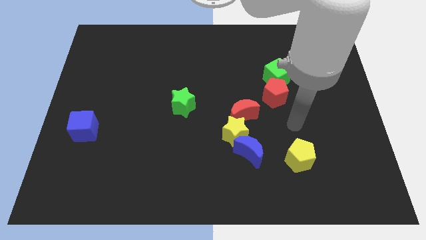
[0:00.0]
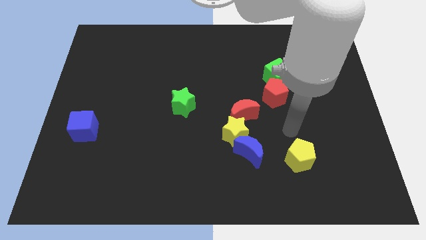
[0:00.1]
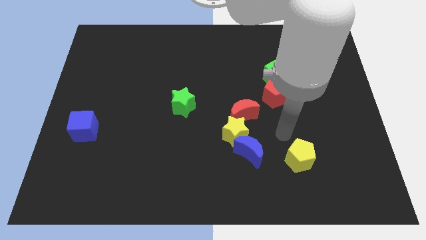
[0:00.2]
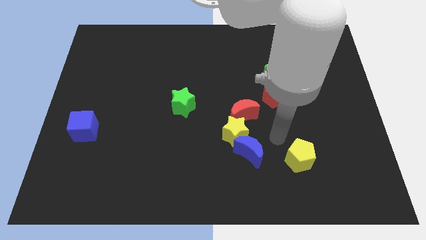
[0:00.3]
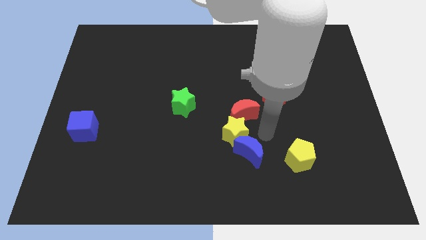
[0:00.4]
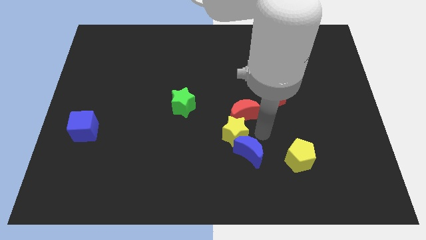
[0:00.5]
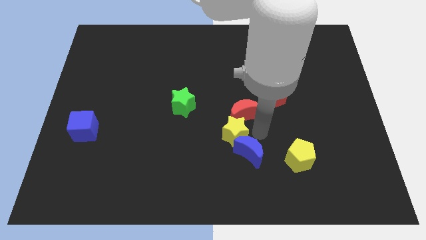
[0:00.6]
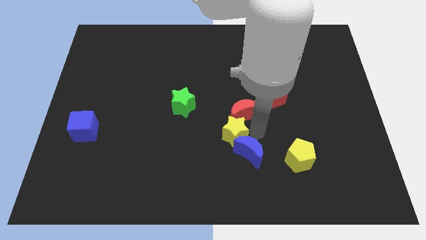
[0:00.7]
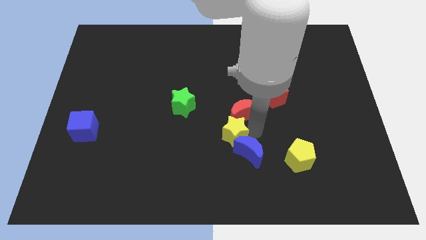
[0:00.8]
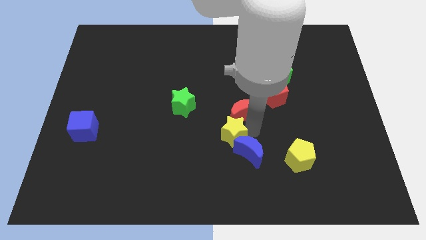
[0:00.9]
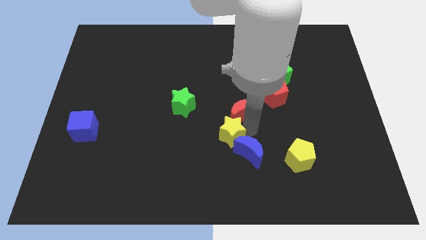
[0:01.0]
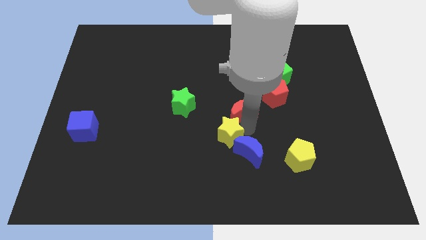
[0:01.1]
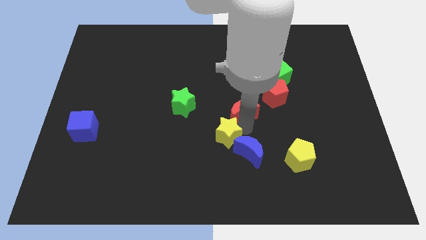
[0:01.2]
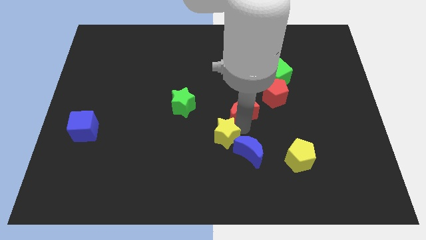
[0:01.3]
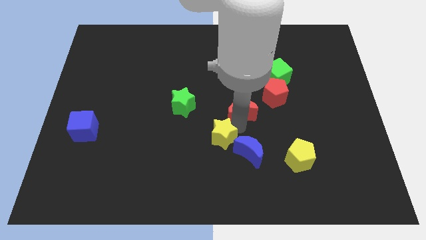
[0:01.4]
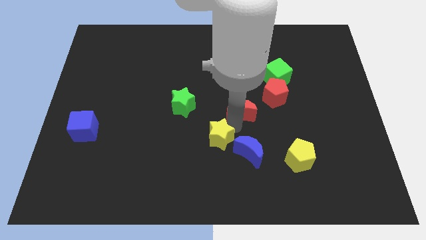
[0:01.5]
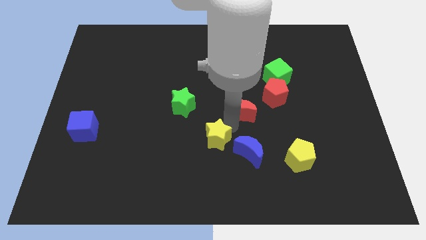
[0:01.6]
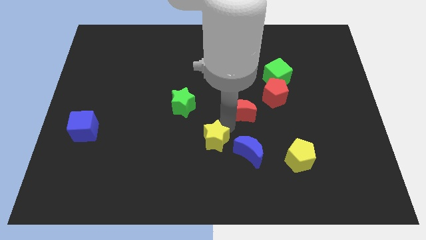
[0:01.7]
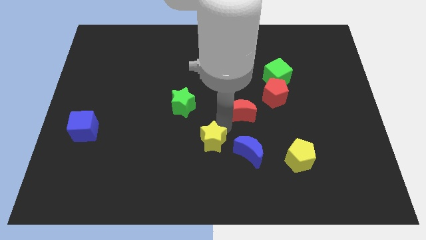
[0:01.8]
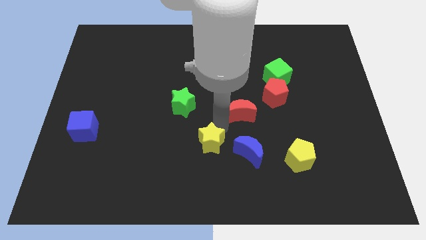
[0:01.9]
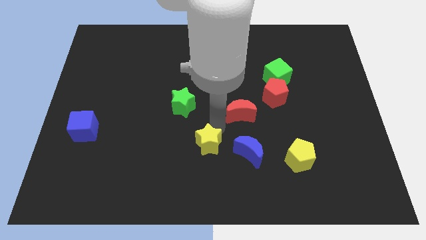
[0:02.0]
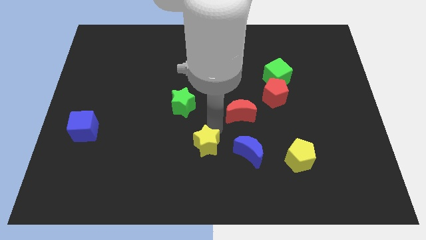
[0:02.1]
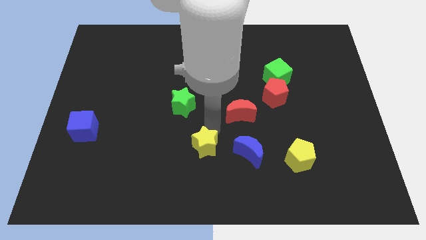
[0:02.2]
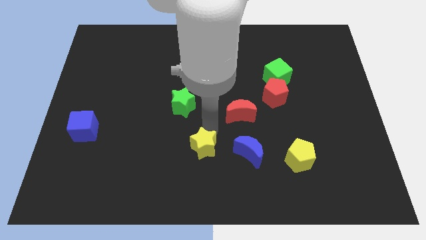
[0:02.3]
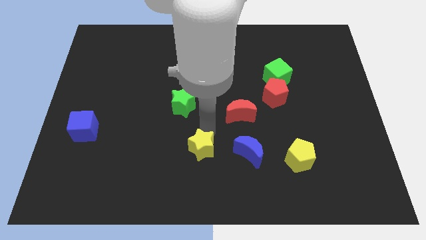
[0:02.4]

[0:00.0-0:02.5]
move the yellow star away from the red moon and blue moon

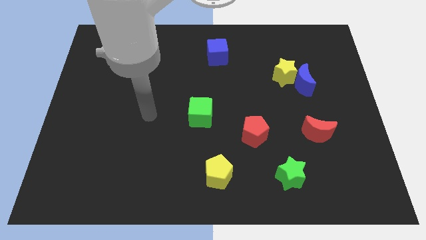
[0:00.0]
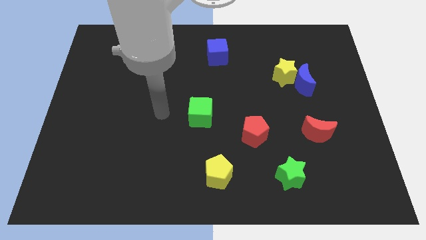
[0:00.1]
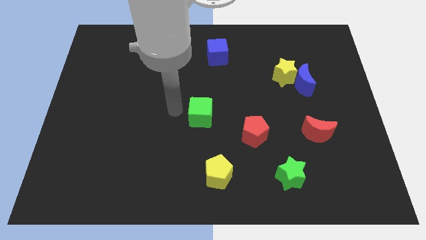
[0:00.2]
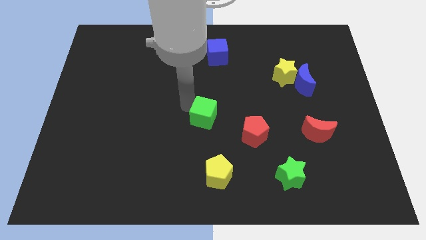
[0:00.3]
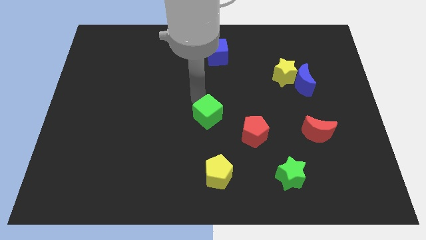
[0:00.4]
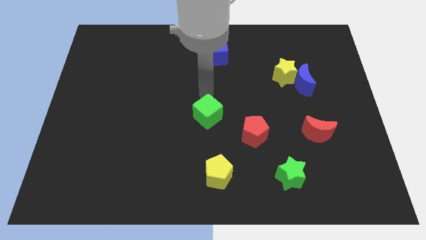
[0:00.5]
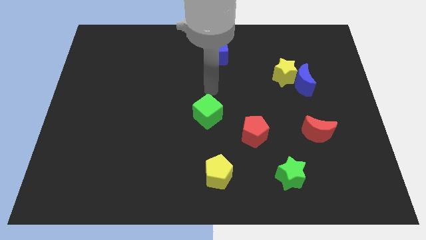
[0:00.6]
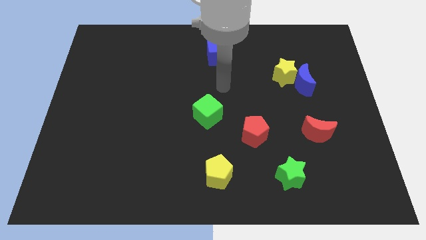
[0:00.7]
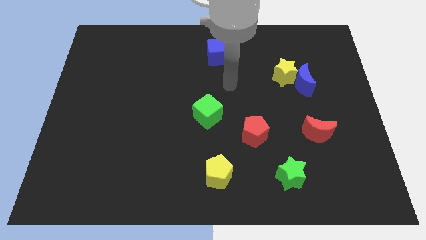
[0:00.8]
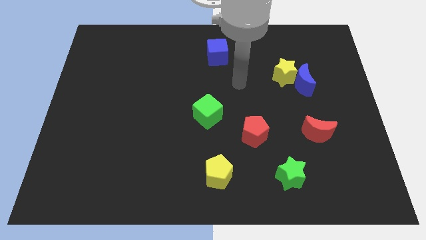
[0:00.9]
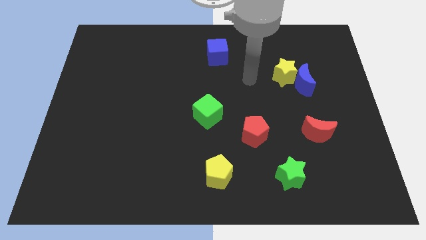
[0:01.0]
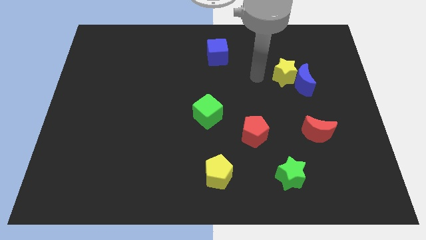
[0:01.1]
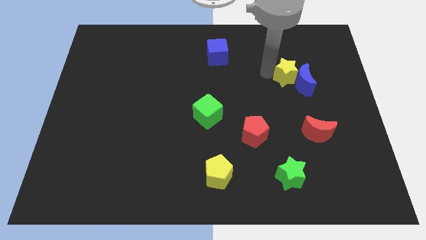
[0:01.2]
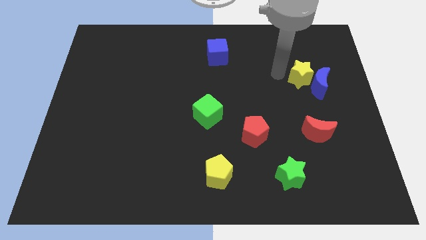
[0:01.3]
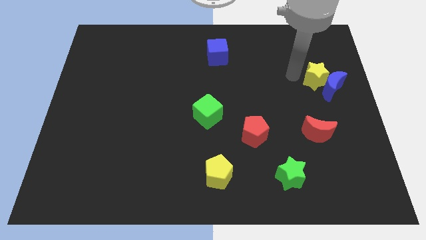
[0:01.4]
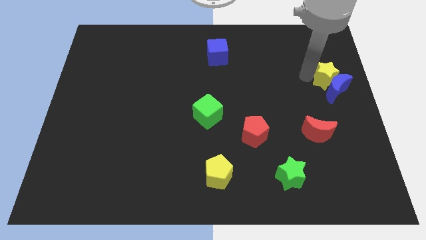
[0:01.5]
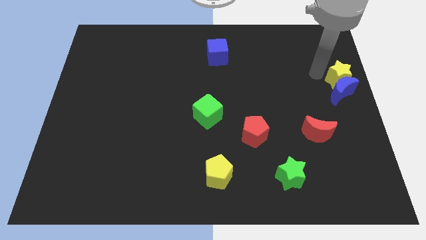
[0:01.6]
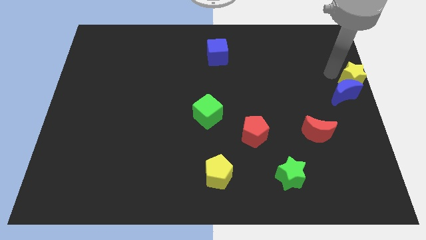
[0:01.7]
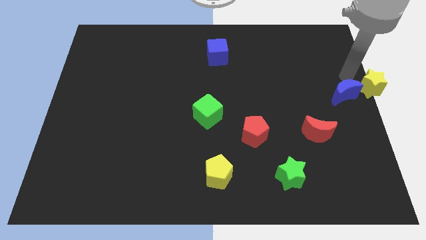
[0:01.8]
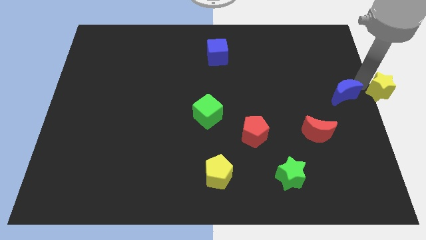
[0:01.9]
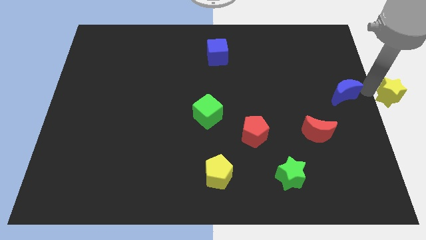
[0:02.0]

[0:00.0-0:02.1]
move the blue moon away from the yellow star

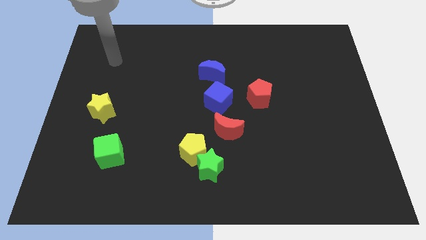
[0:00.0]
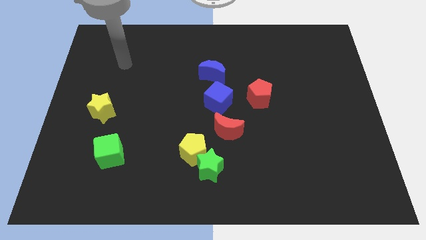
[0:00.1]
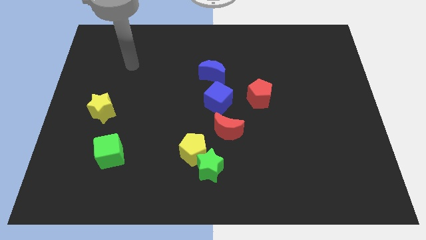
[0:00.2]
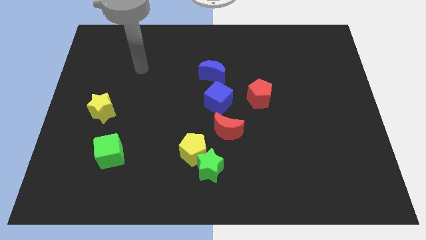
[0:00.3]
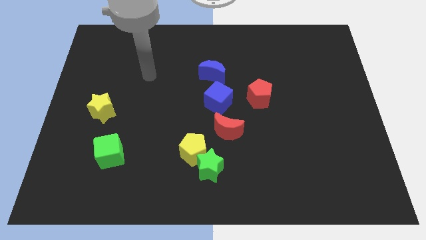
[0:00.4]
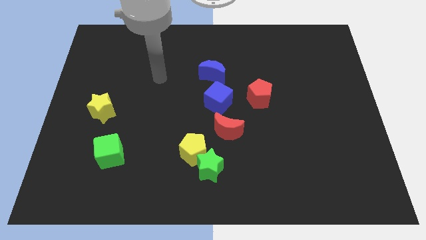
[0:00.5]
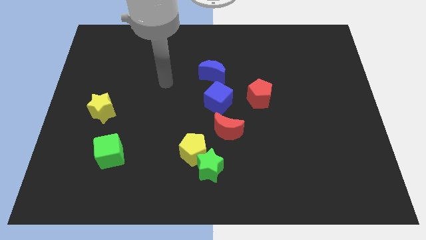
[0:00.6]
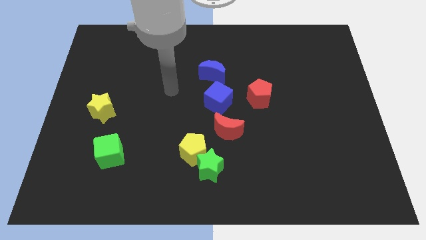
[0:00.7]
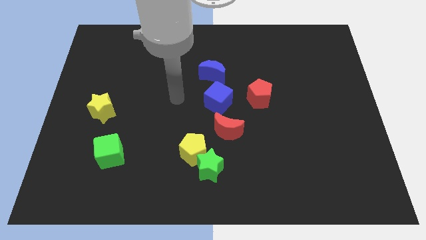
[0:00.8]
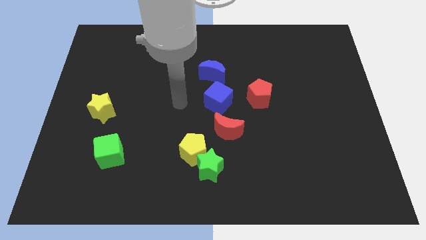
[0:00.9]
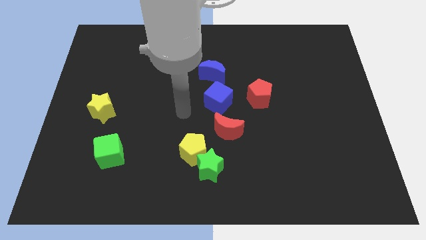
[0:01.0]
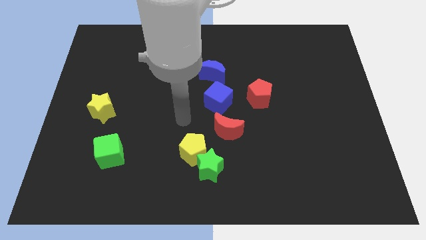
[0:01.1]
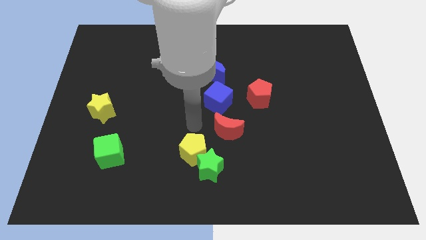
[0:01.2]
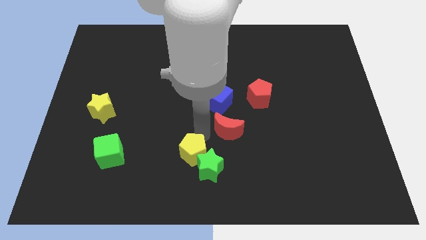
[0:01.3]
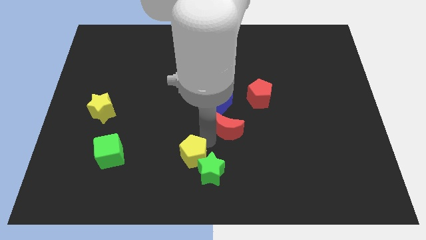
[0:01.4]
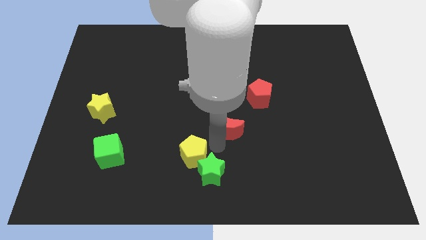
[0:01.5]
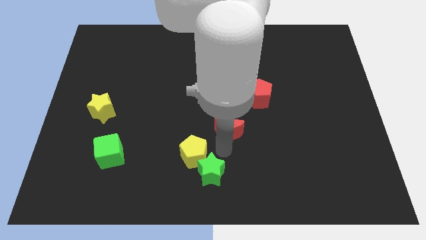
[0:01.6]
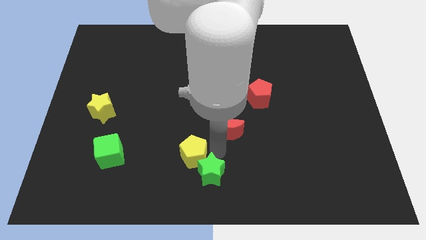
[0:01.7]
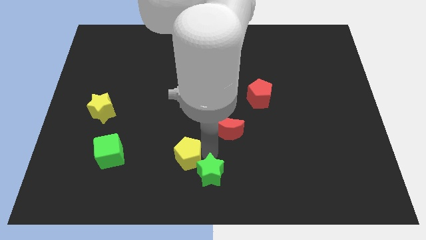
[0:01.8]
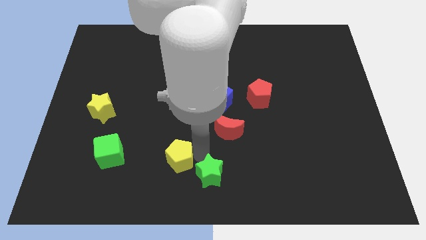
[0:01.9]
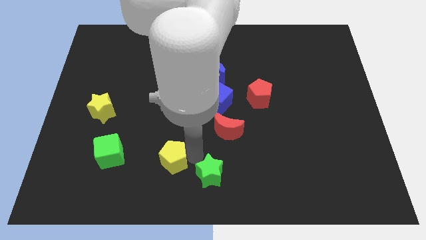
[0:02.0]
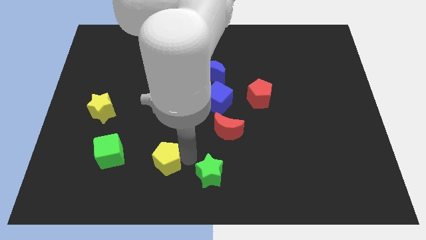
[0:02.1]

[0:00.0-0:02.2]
move the yellow pentagon away from the green star and red moon

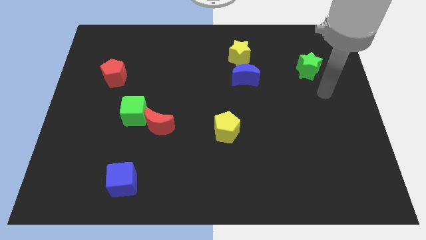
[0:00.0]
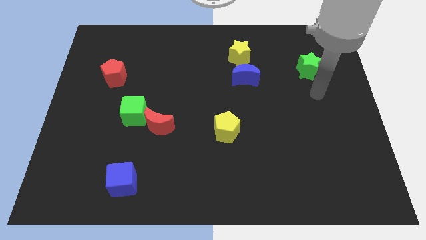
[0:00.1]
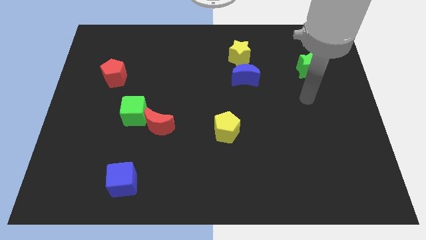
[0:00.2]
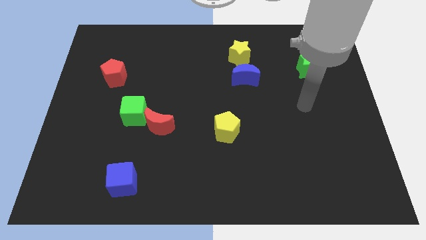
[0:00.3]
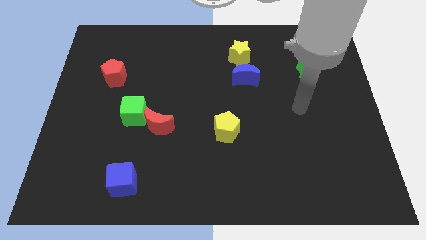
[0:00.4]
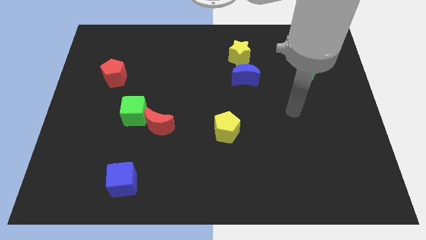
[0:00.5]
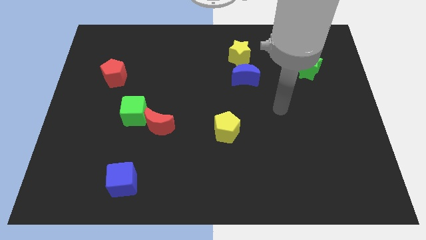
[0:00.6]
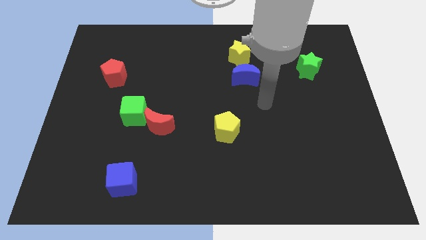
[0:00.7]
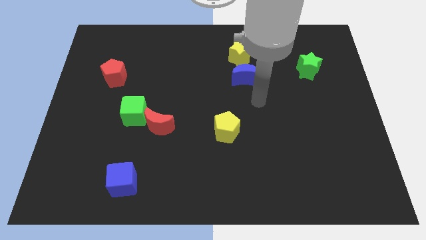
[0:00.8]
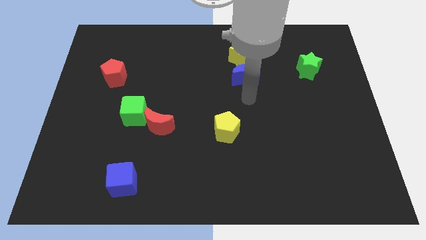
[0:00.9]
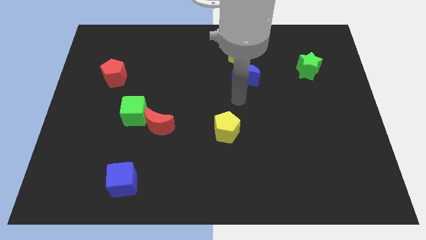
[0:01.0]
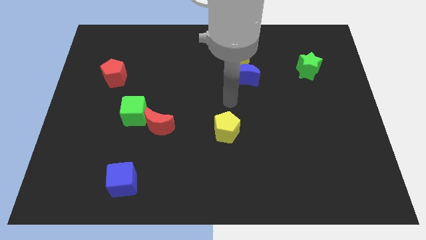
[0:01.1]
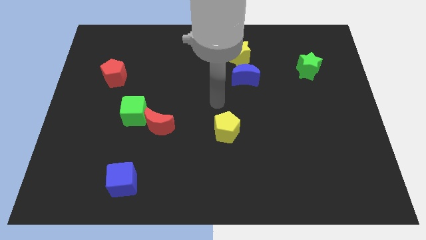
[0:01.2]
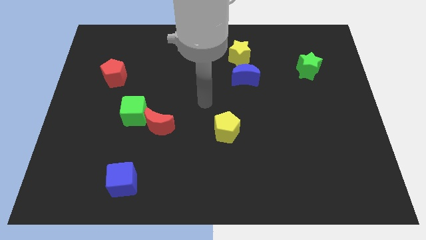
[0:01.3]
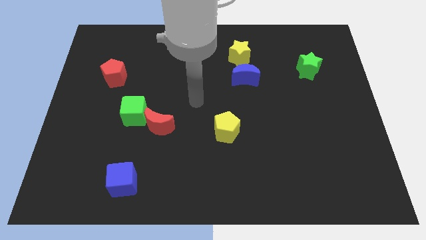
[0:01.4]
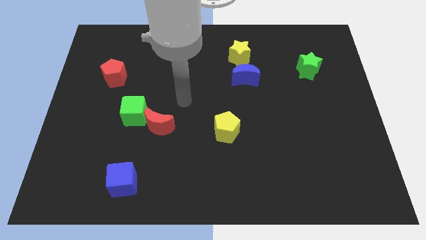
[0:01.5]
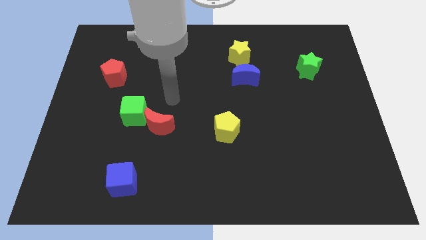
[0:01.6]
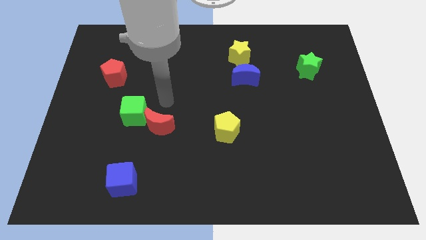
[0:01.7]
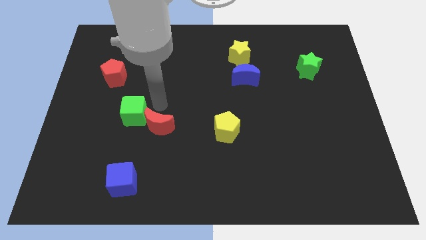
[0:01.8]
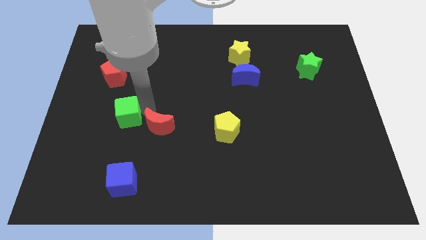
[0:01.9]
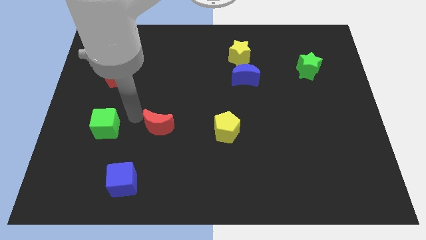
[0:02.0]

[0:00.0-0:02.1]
separate the red moon from the green cube

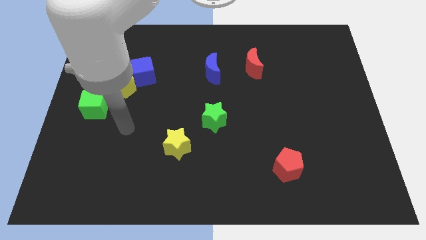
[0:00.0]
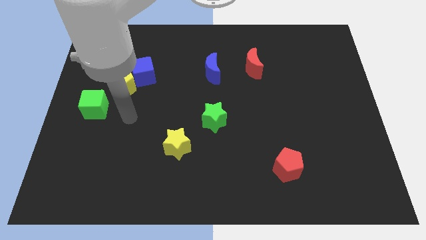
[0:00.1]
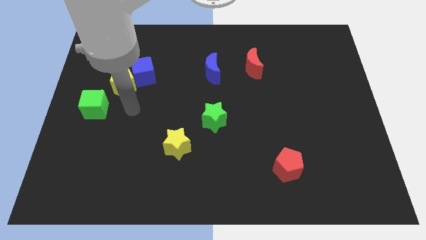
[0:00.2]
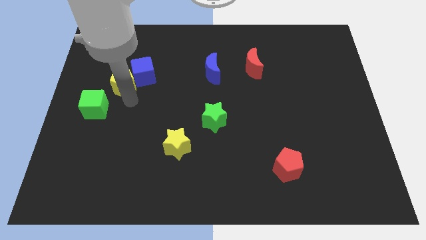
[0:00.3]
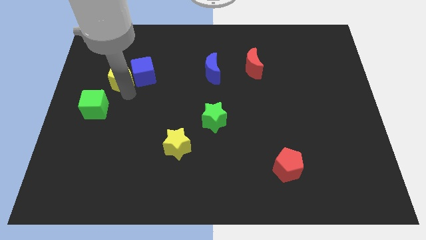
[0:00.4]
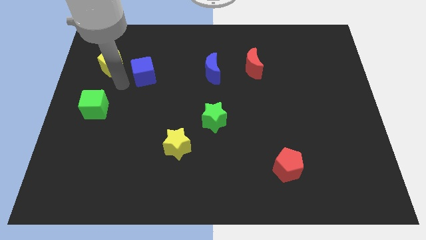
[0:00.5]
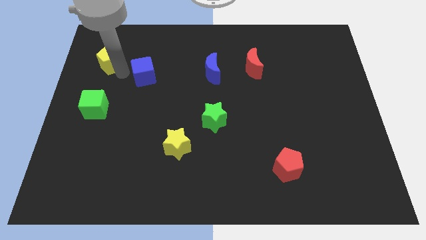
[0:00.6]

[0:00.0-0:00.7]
separate the blue cube from the yellow pentagon
